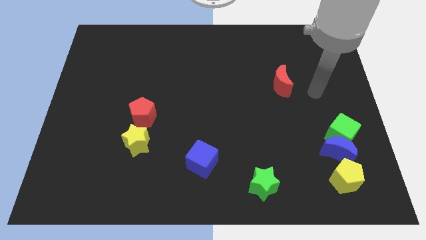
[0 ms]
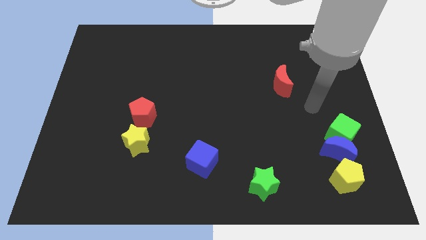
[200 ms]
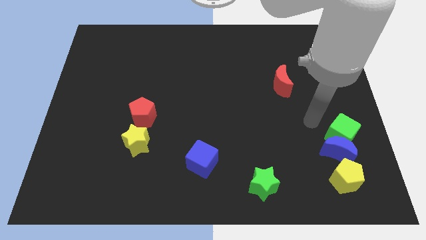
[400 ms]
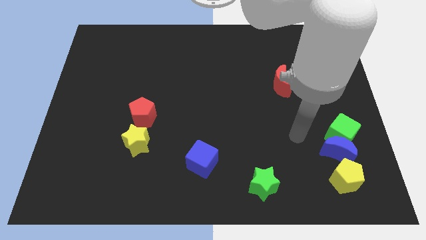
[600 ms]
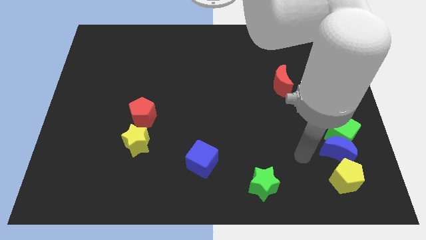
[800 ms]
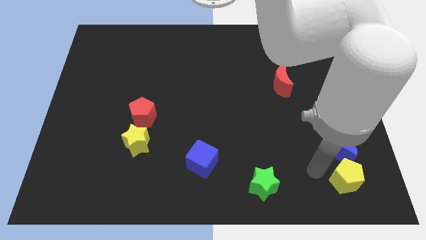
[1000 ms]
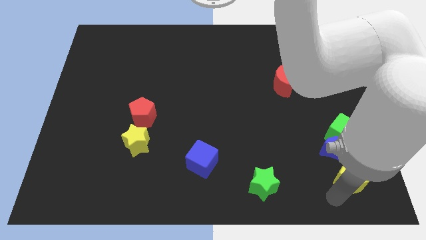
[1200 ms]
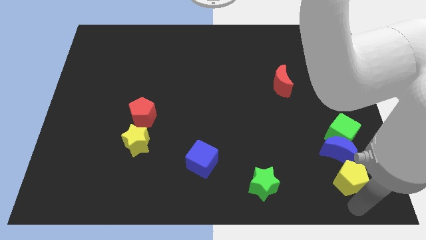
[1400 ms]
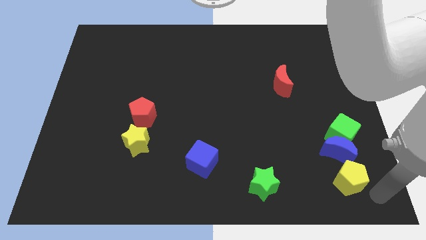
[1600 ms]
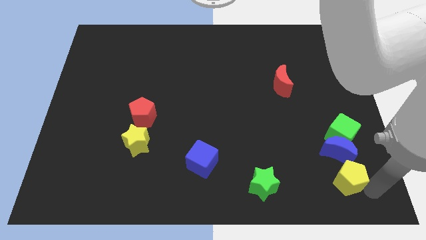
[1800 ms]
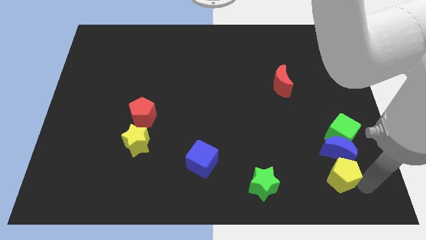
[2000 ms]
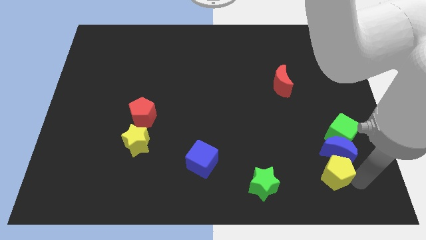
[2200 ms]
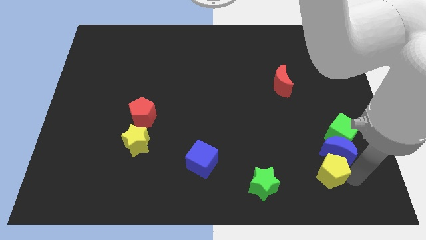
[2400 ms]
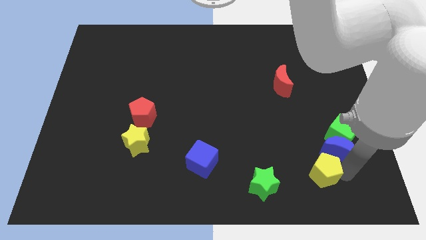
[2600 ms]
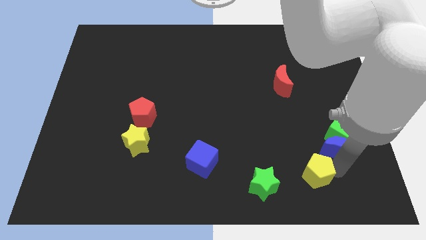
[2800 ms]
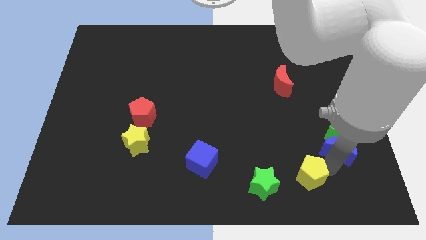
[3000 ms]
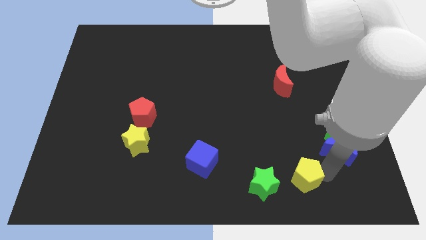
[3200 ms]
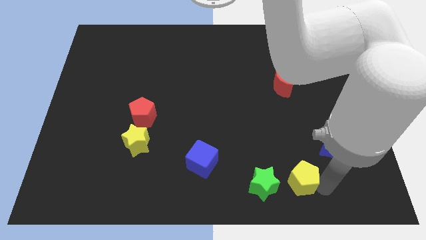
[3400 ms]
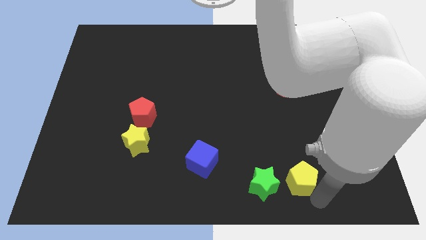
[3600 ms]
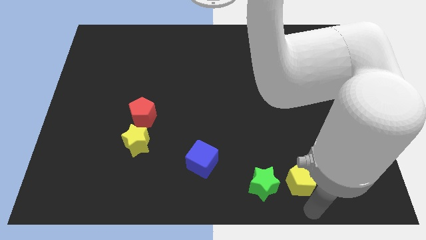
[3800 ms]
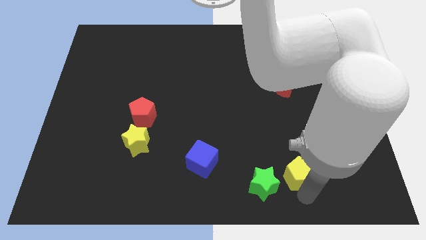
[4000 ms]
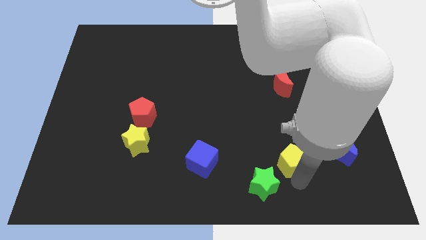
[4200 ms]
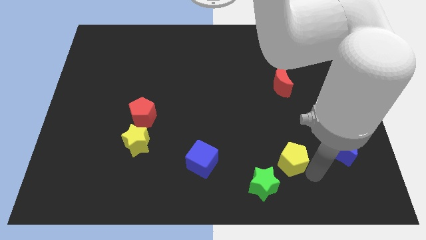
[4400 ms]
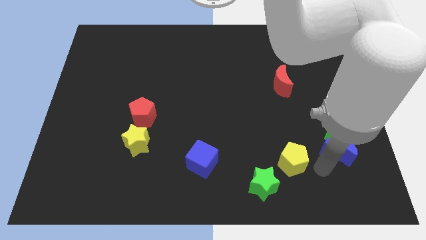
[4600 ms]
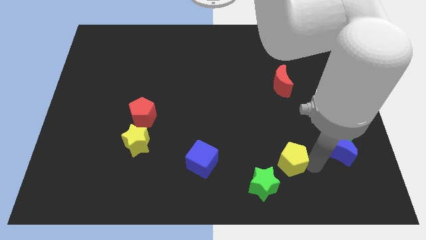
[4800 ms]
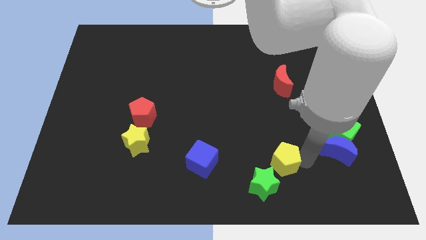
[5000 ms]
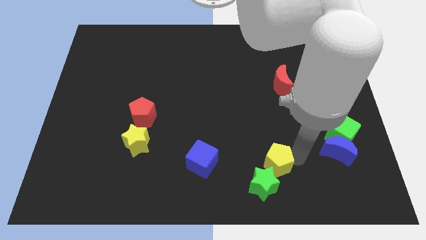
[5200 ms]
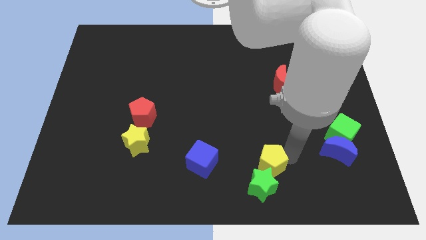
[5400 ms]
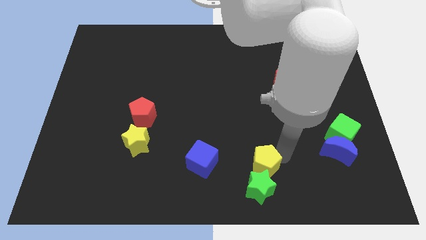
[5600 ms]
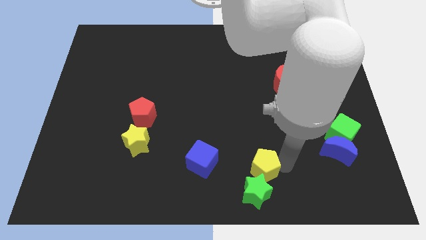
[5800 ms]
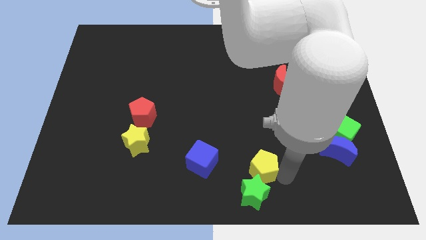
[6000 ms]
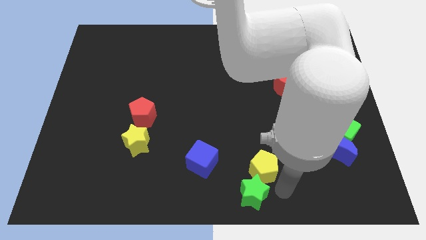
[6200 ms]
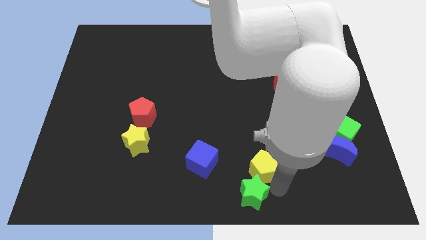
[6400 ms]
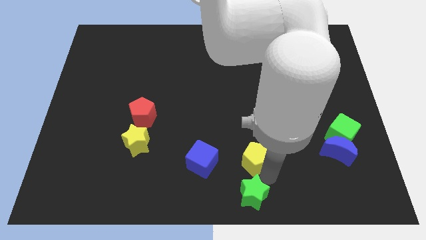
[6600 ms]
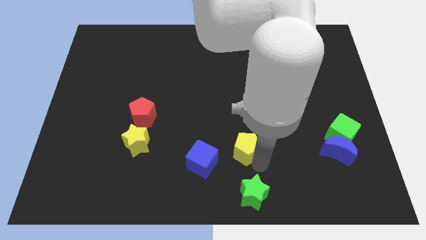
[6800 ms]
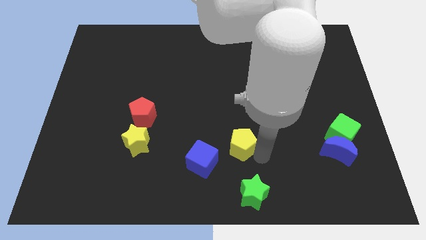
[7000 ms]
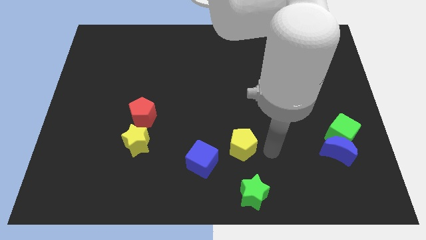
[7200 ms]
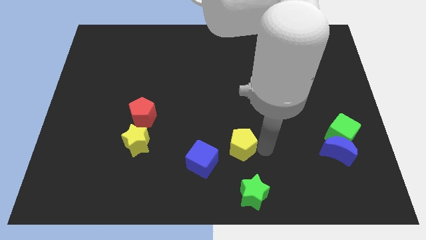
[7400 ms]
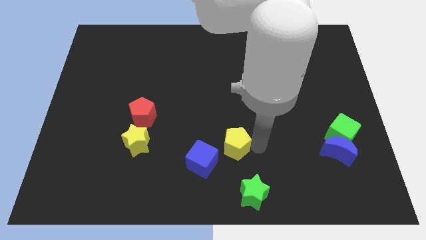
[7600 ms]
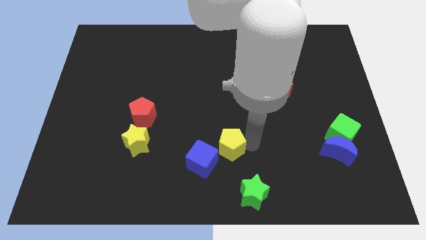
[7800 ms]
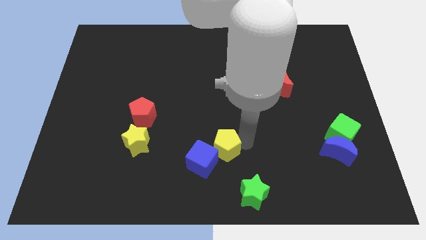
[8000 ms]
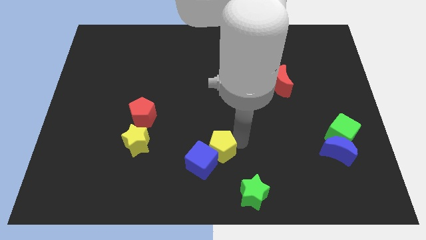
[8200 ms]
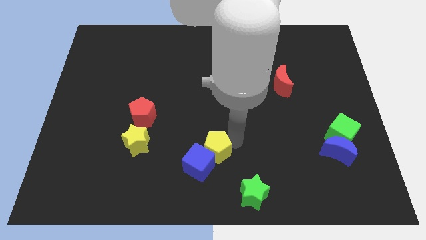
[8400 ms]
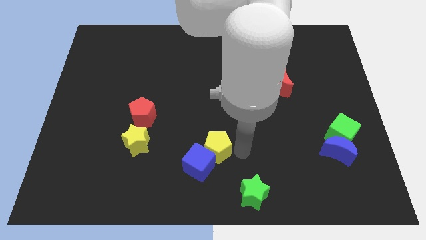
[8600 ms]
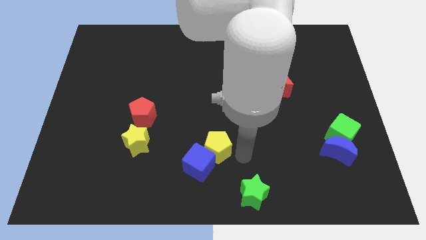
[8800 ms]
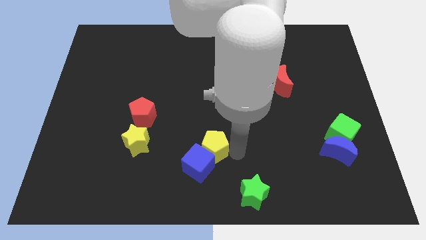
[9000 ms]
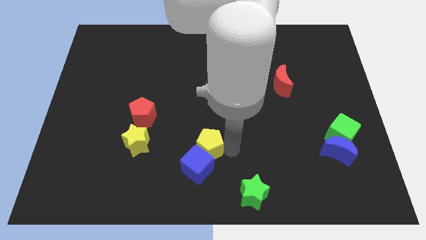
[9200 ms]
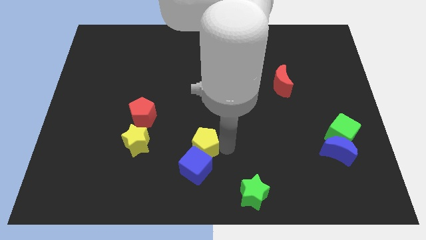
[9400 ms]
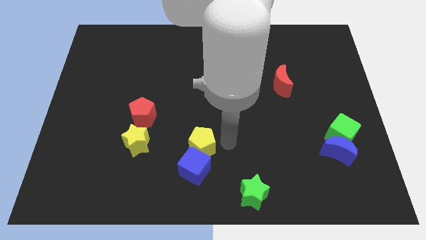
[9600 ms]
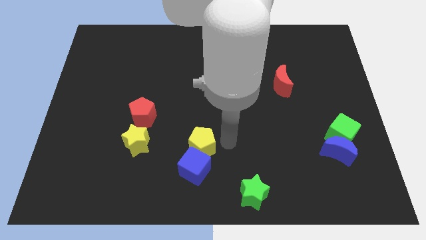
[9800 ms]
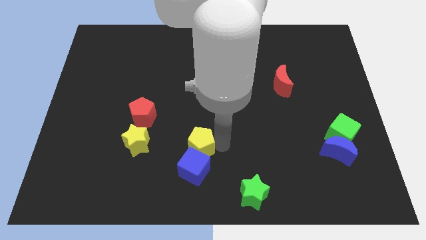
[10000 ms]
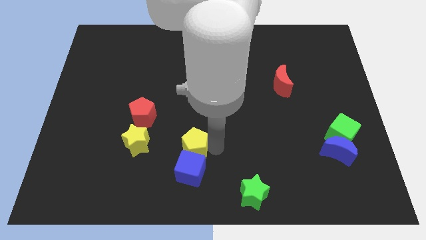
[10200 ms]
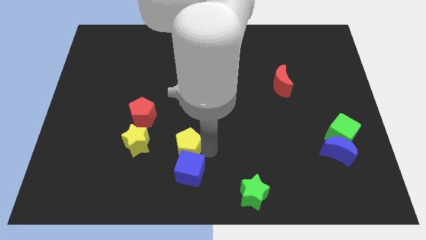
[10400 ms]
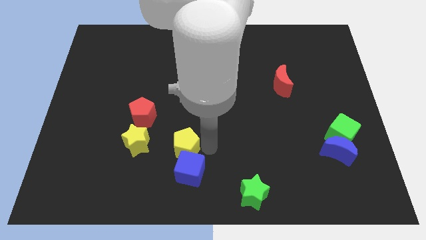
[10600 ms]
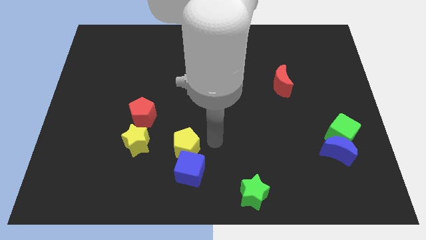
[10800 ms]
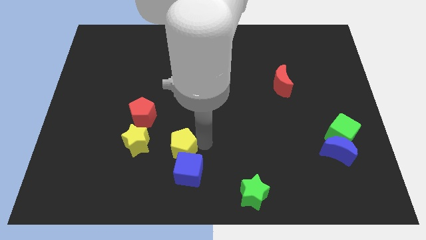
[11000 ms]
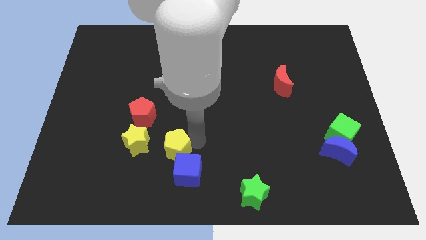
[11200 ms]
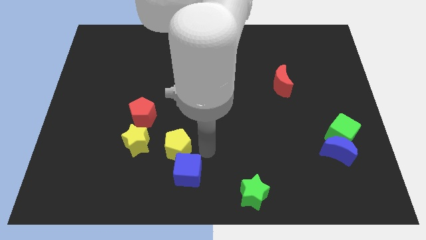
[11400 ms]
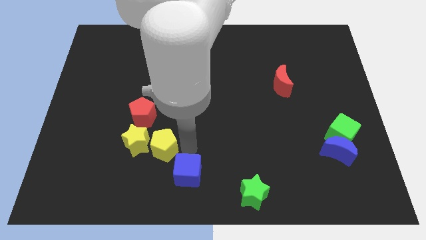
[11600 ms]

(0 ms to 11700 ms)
push the yellow pentagon towards the yellow star

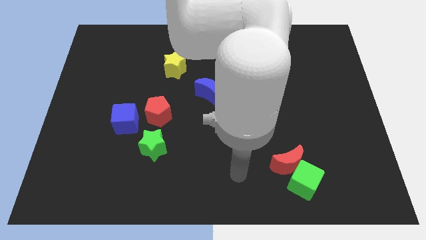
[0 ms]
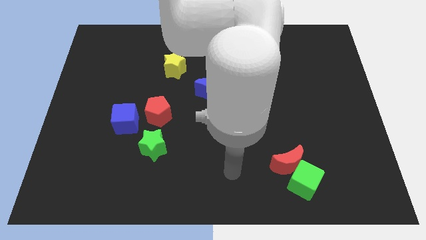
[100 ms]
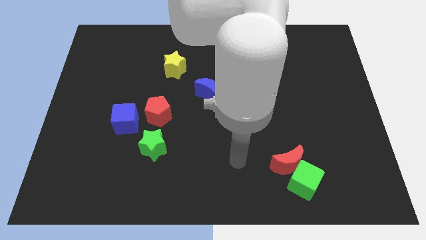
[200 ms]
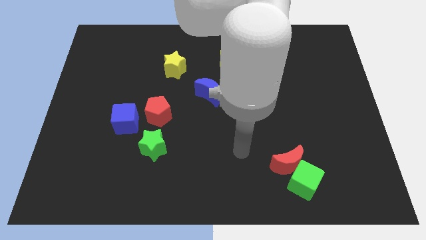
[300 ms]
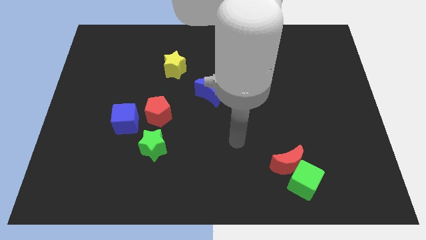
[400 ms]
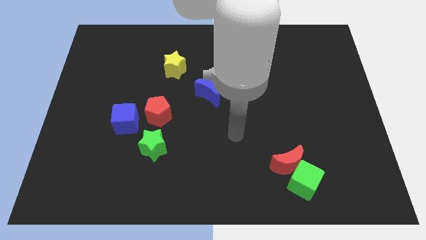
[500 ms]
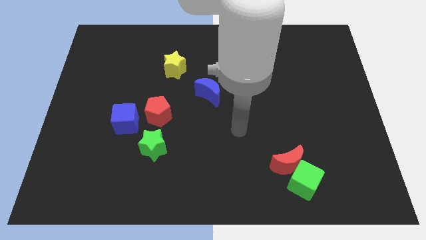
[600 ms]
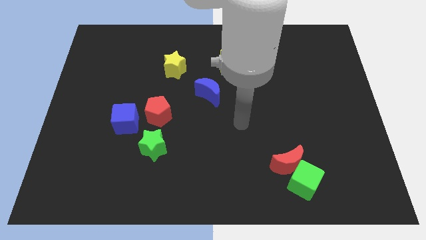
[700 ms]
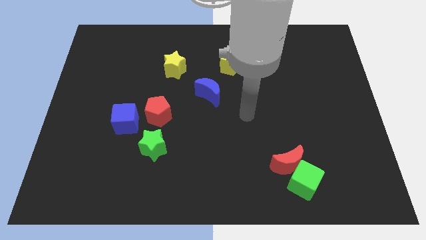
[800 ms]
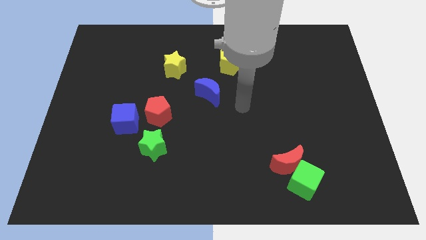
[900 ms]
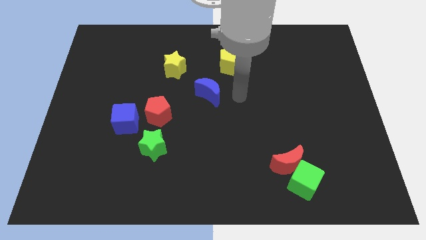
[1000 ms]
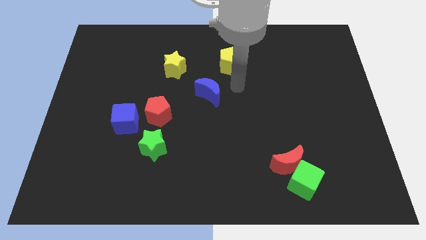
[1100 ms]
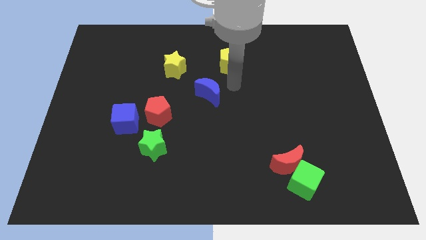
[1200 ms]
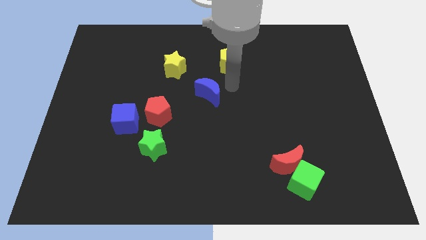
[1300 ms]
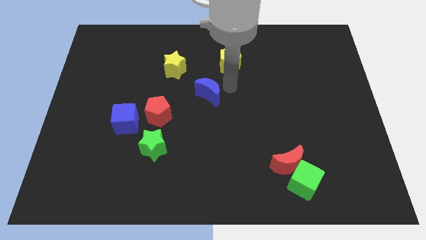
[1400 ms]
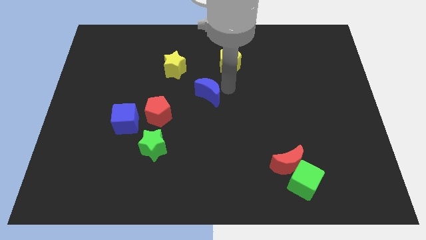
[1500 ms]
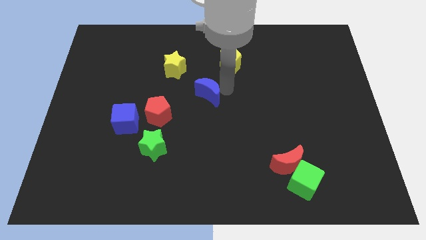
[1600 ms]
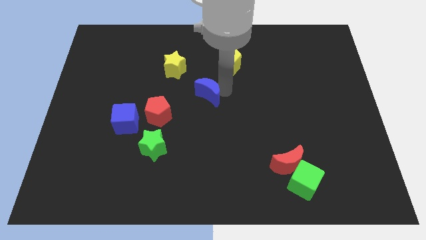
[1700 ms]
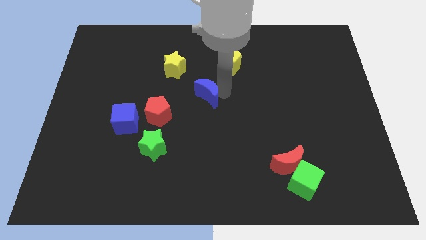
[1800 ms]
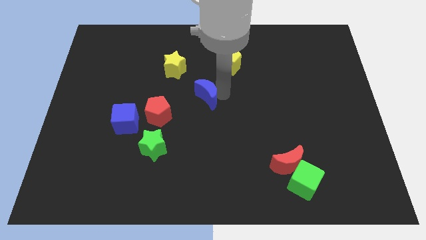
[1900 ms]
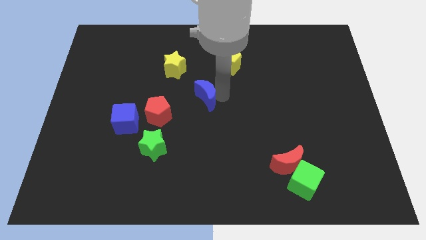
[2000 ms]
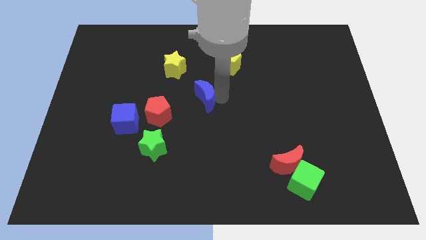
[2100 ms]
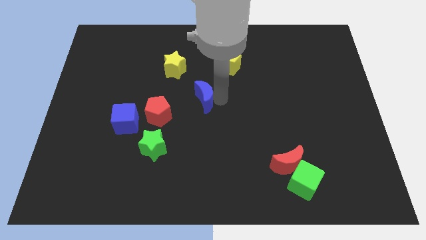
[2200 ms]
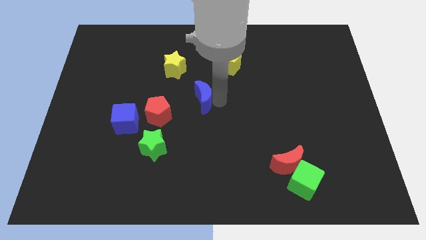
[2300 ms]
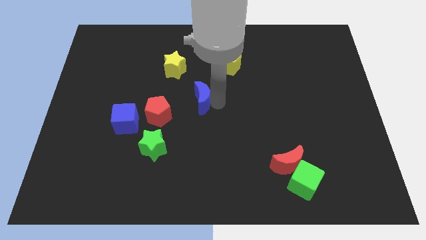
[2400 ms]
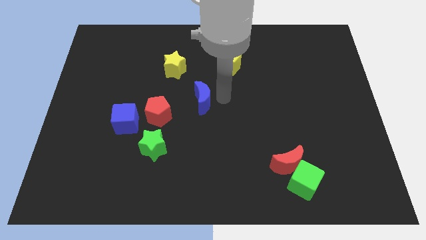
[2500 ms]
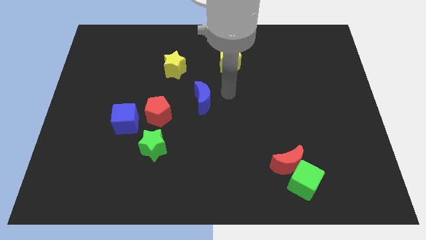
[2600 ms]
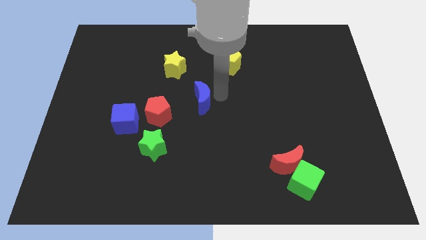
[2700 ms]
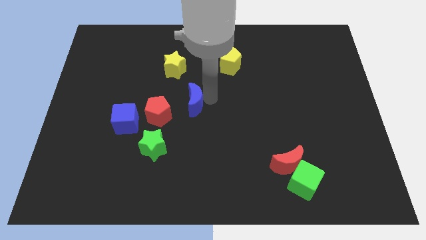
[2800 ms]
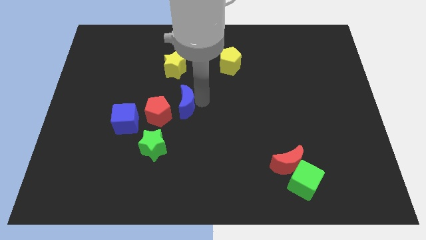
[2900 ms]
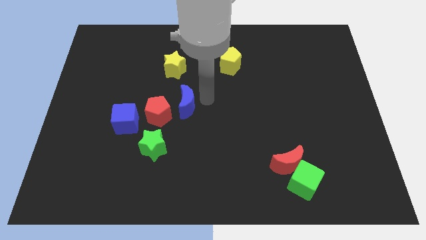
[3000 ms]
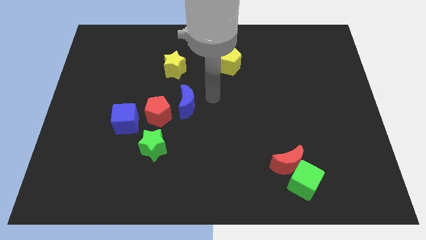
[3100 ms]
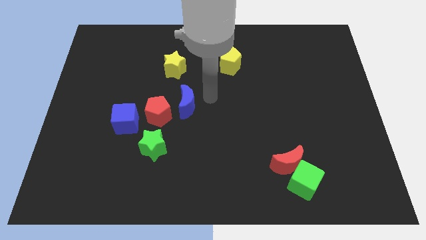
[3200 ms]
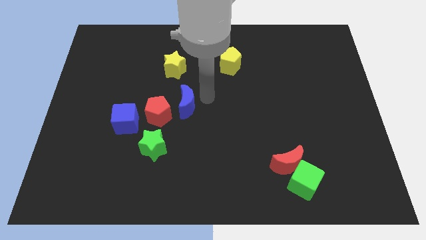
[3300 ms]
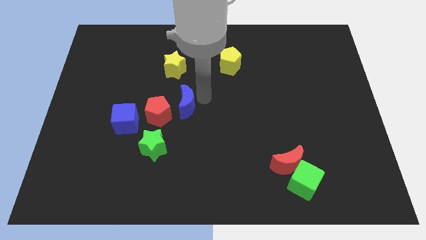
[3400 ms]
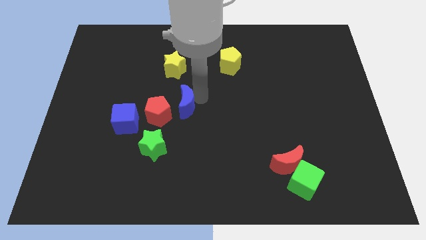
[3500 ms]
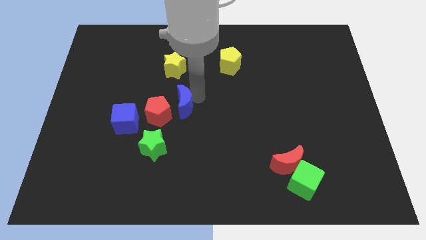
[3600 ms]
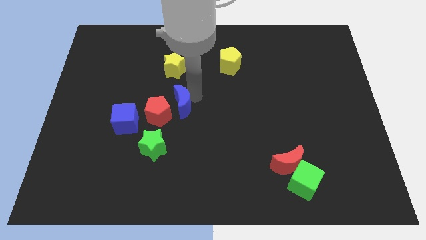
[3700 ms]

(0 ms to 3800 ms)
put the blue moon towards the red pentagon
